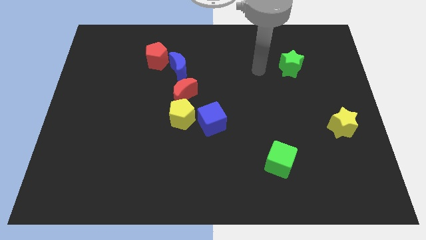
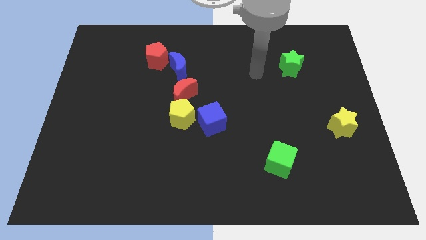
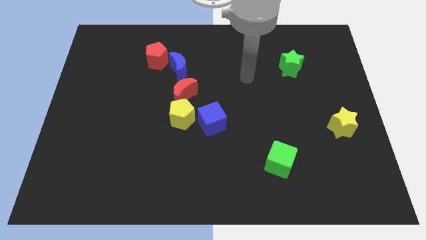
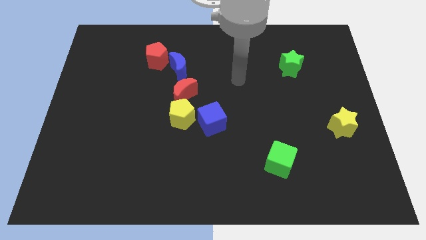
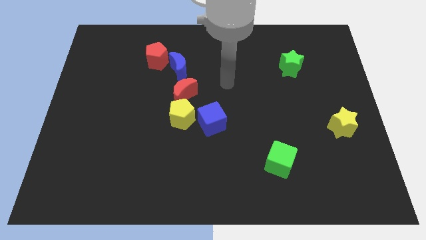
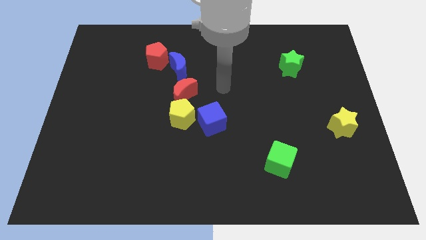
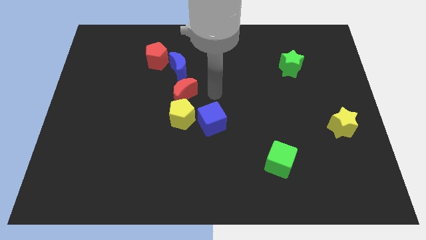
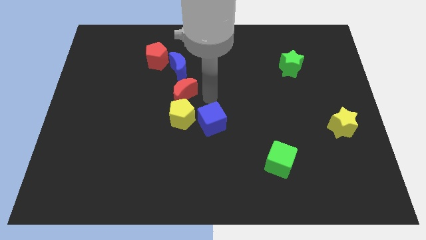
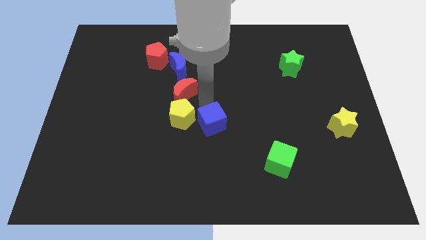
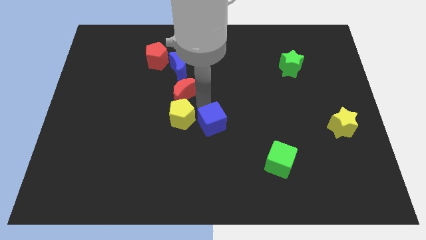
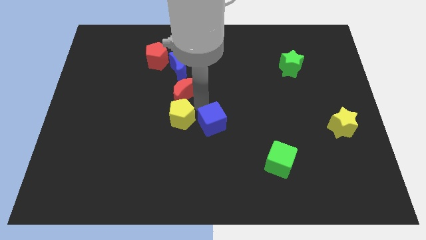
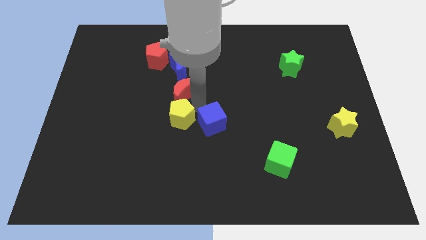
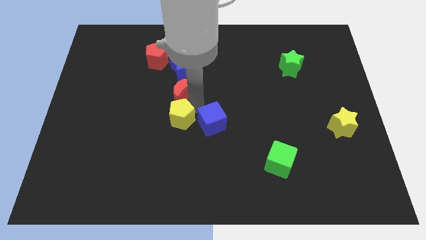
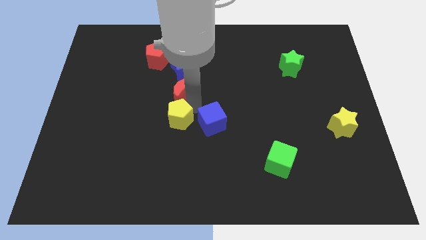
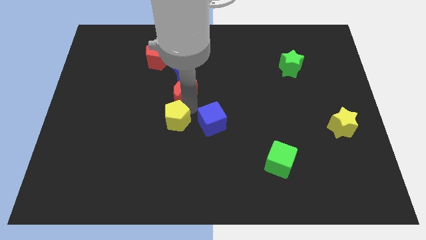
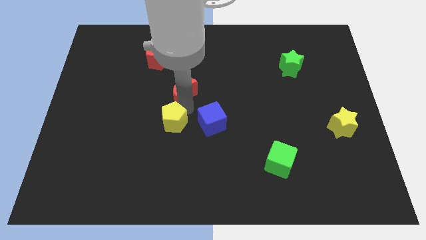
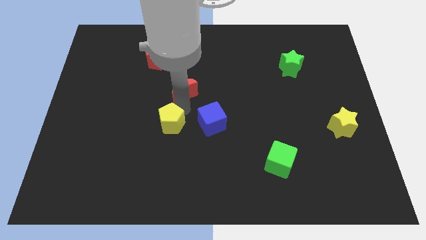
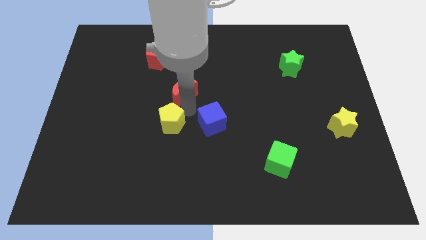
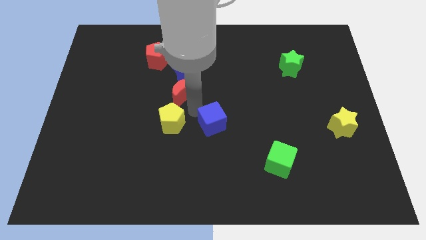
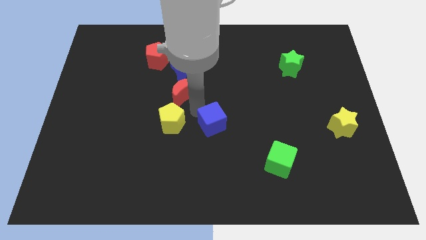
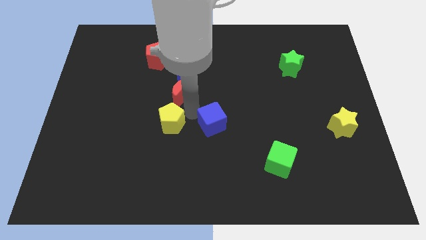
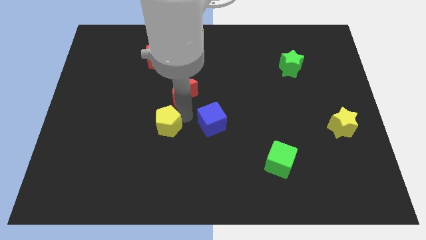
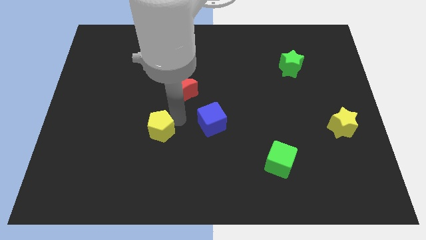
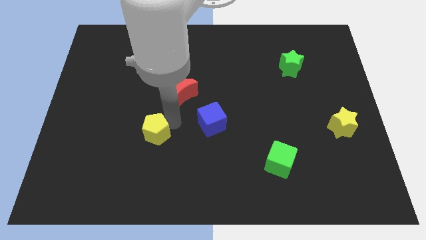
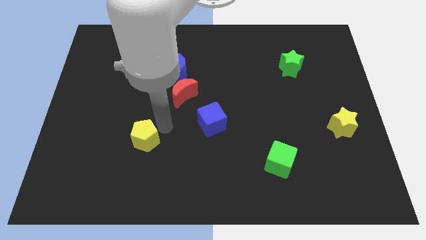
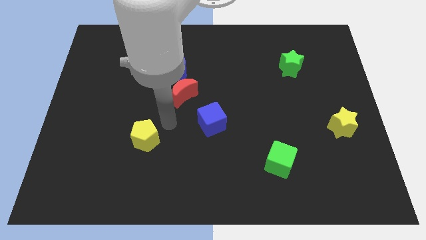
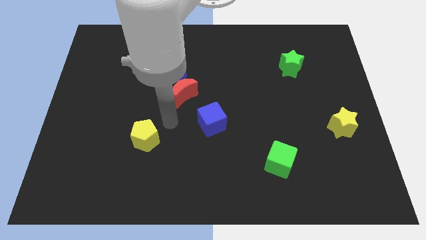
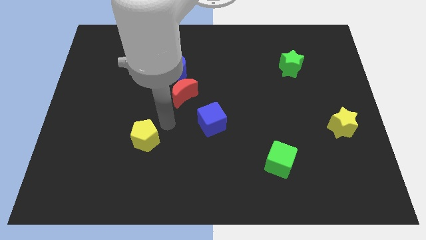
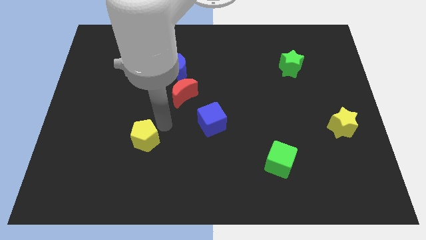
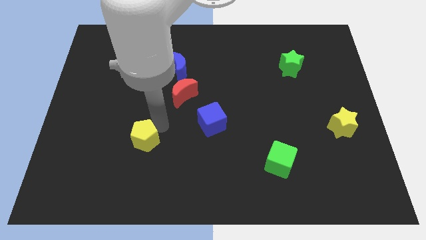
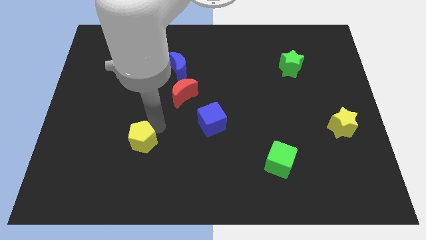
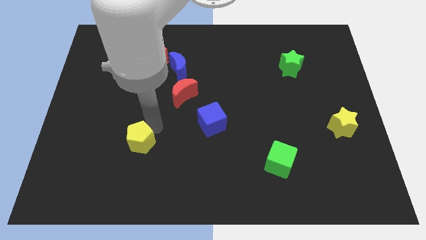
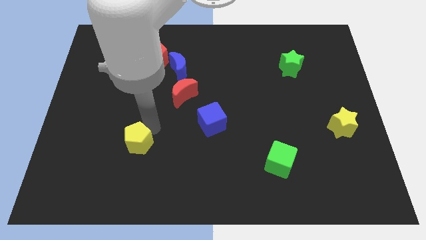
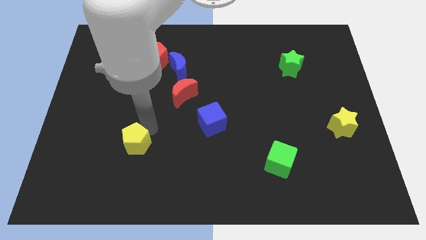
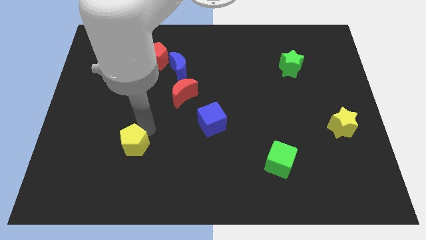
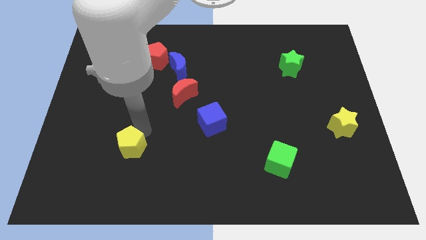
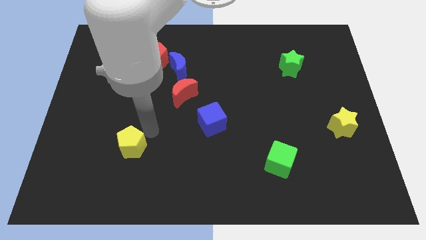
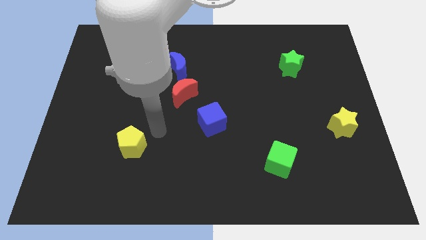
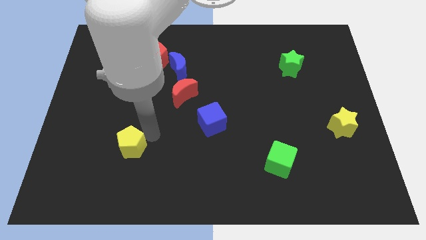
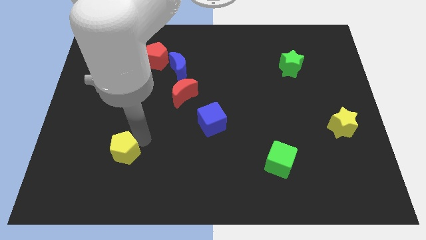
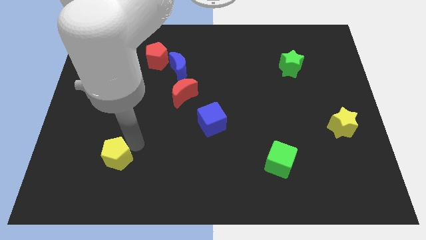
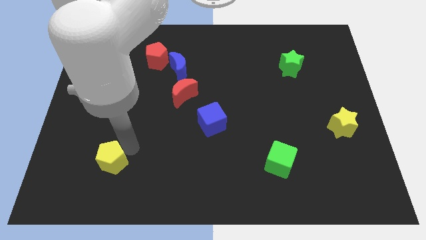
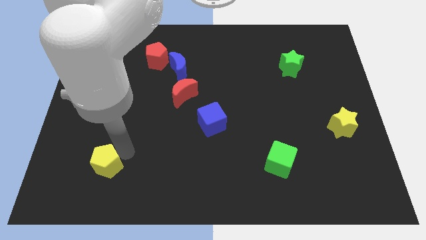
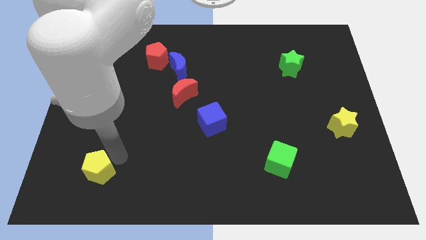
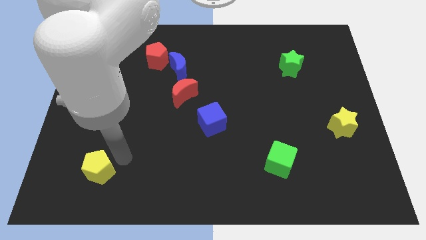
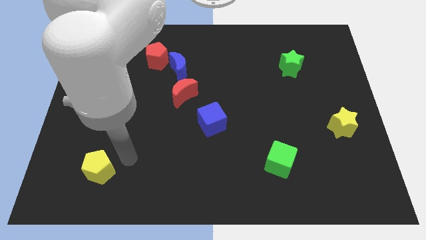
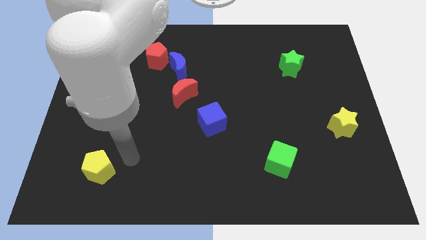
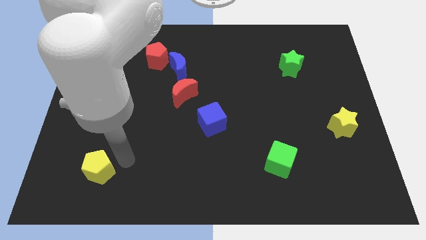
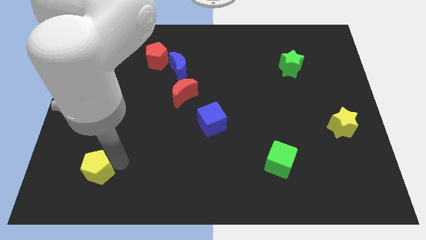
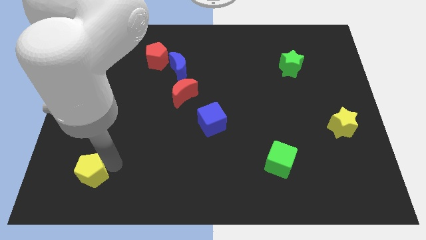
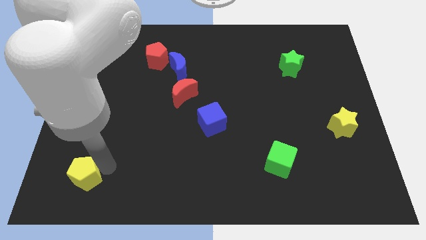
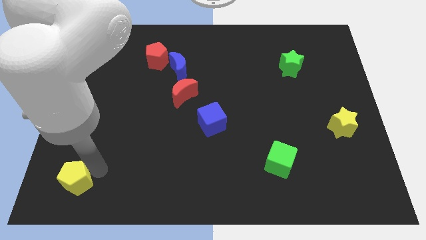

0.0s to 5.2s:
slide the yellow pentagon to the bottom left corner

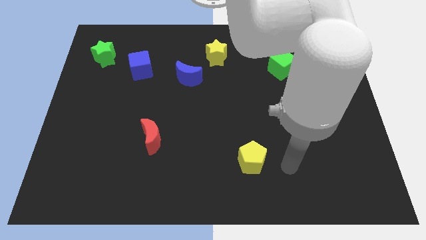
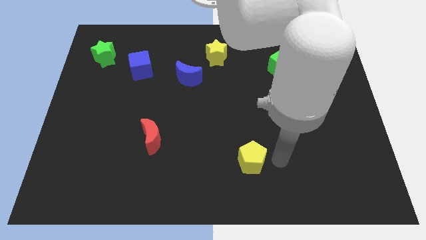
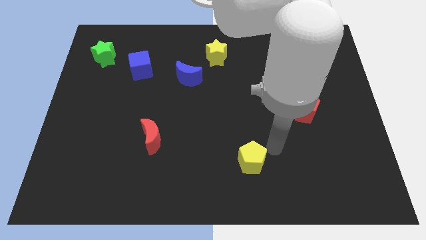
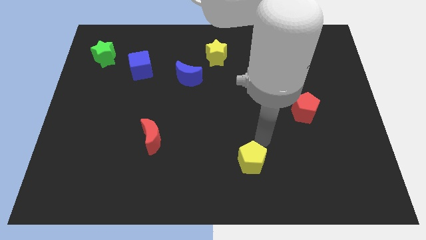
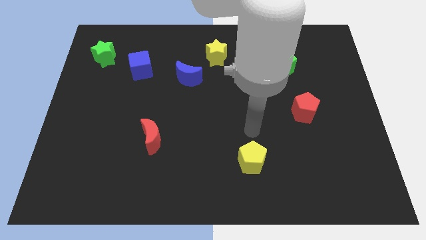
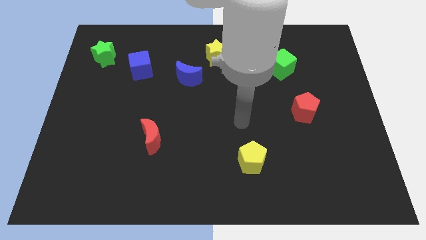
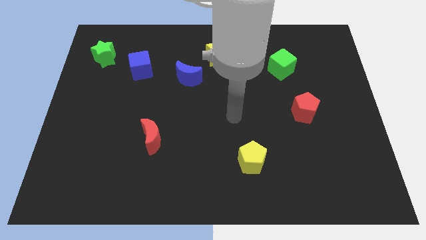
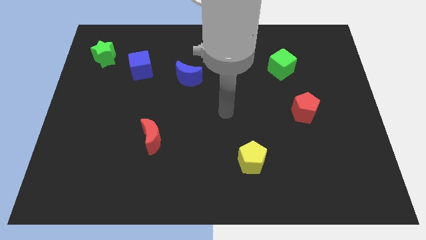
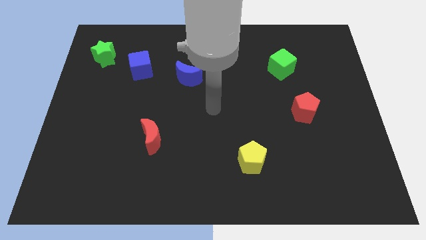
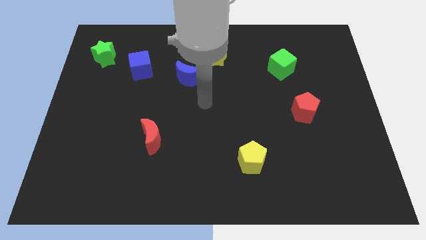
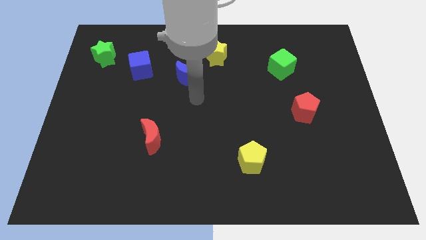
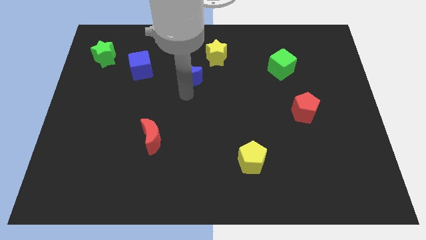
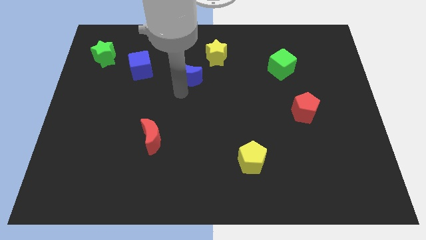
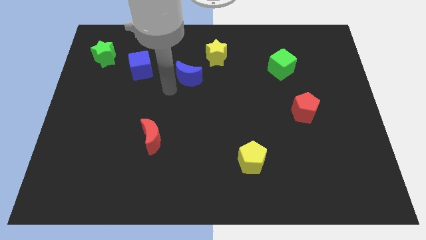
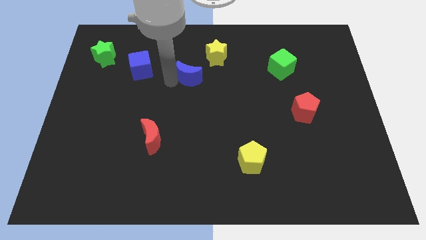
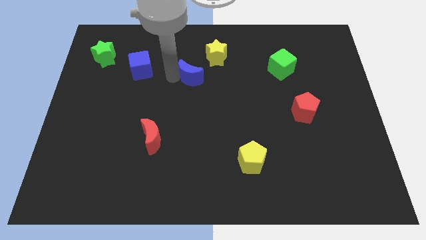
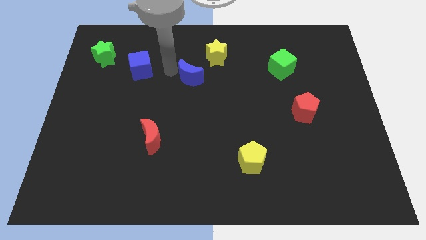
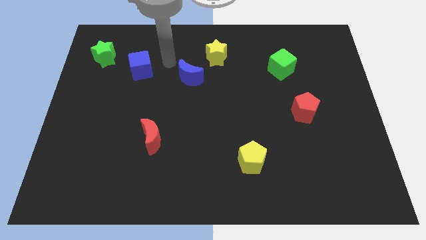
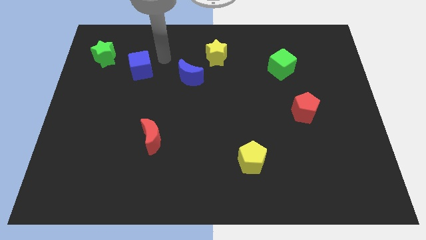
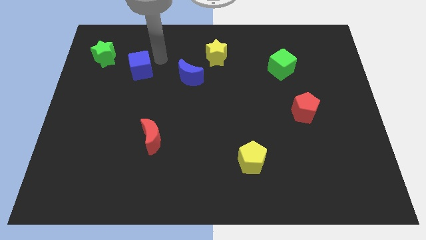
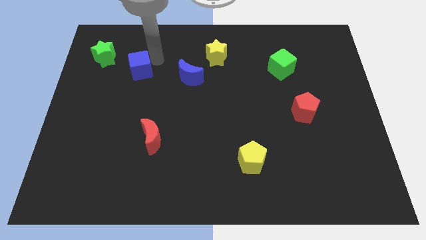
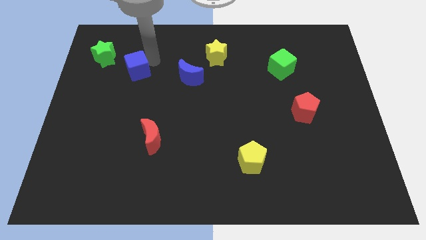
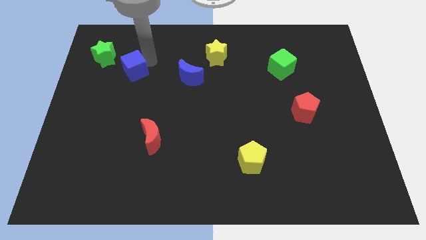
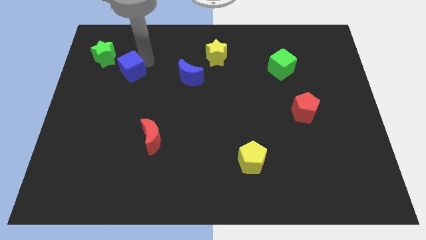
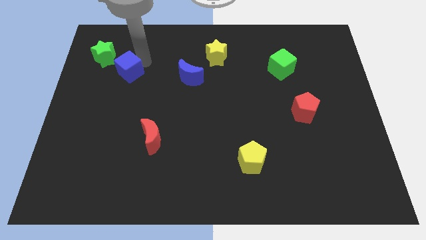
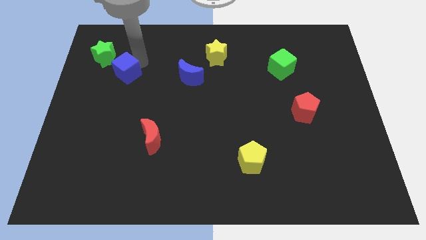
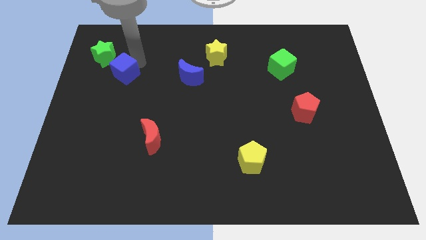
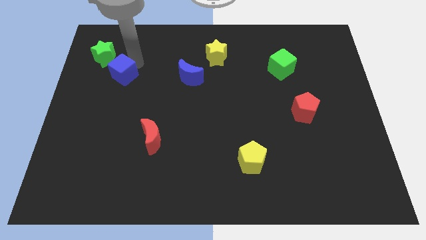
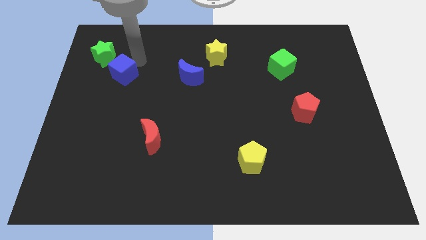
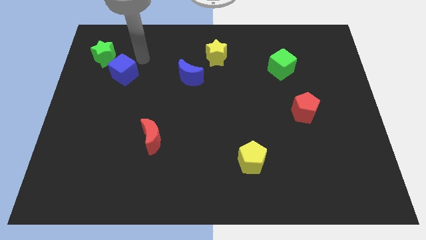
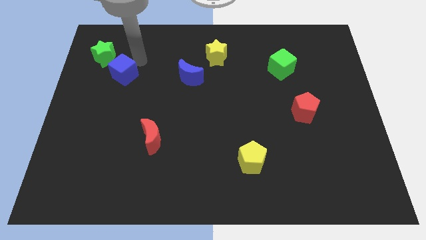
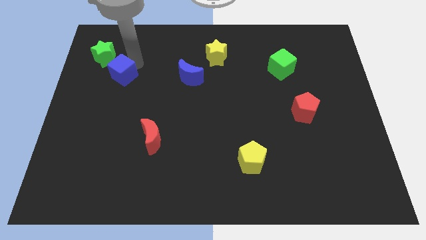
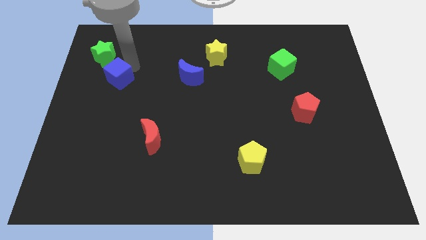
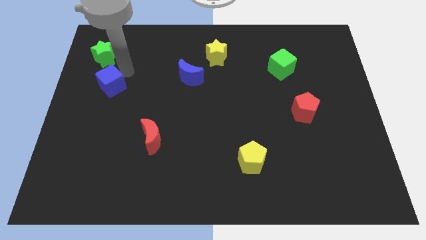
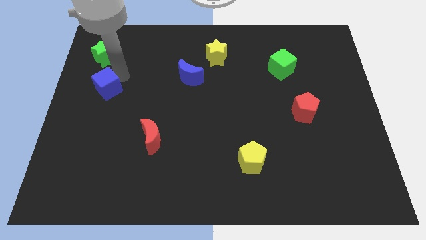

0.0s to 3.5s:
push the blue cube to the center left
